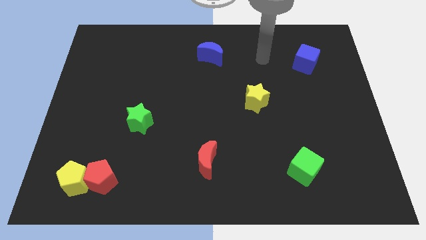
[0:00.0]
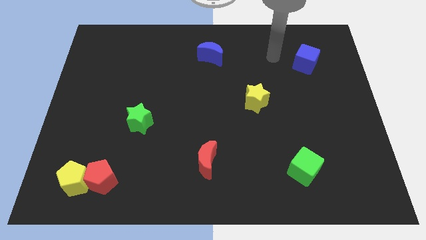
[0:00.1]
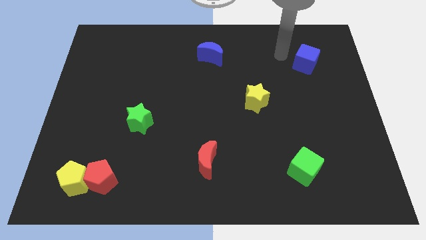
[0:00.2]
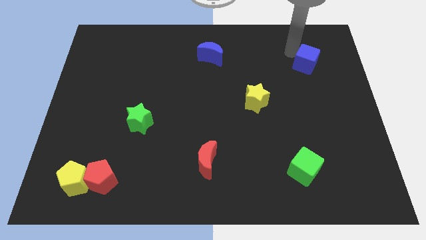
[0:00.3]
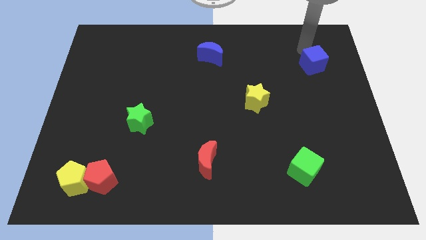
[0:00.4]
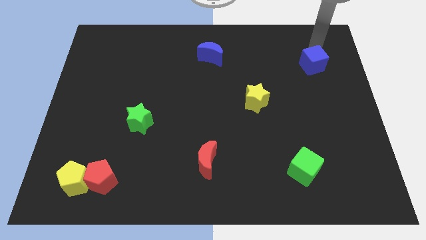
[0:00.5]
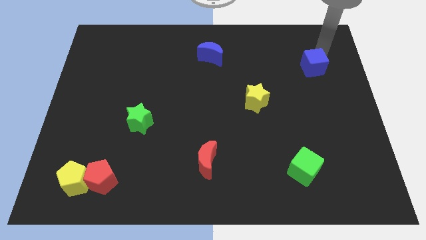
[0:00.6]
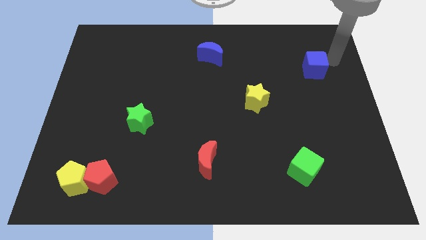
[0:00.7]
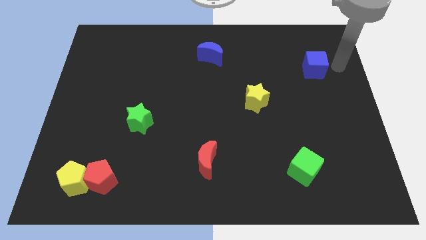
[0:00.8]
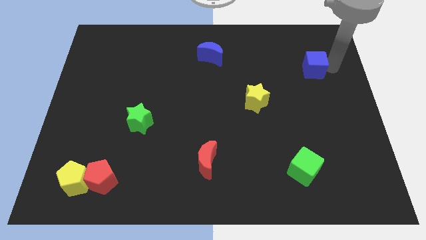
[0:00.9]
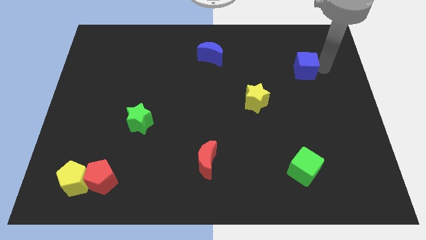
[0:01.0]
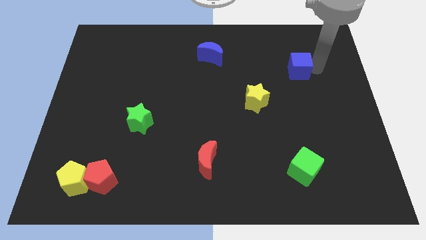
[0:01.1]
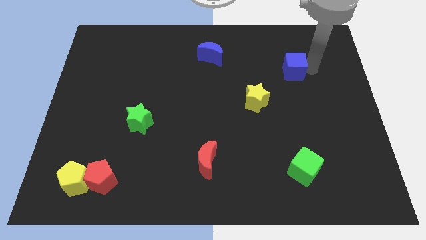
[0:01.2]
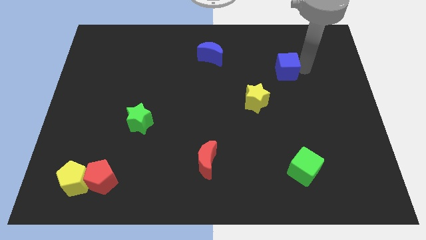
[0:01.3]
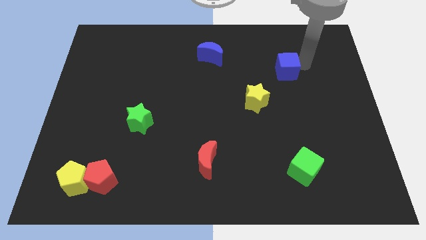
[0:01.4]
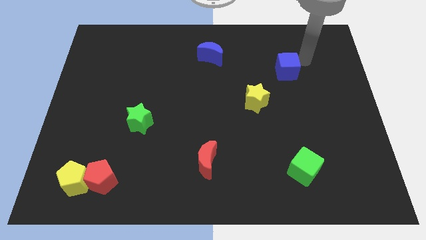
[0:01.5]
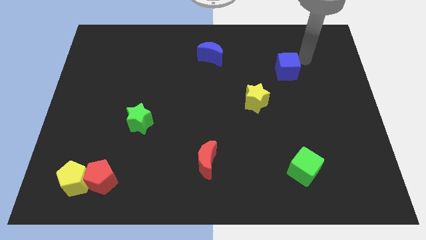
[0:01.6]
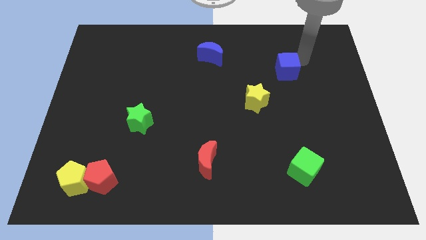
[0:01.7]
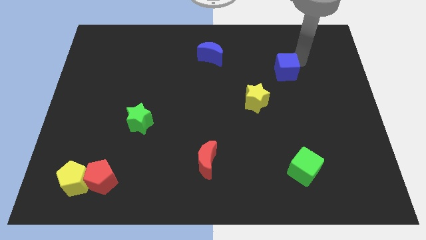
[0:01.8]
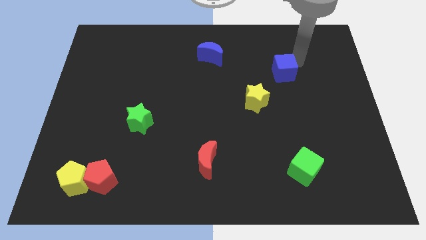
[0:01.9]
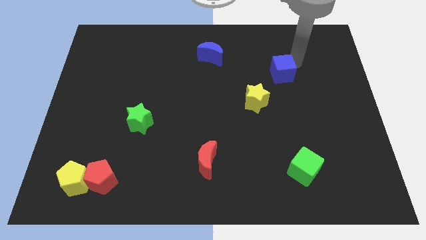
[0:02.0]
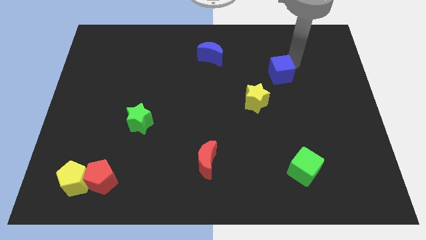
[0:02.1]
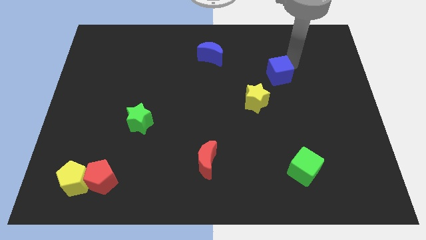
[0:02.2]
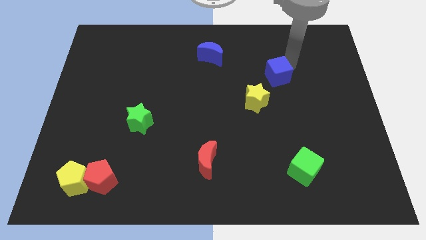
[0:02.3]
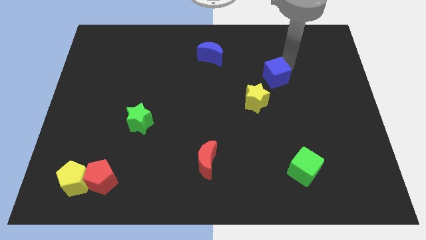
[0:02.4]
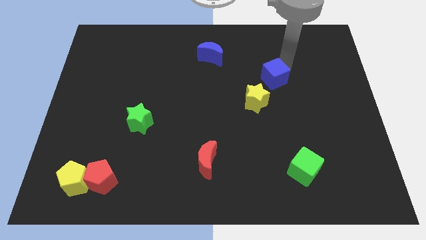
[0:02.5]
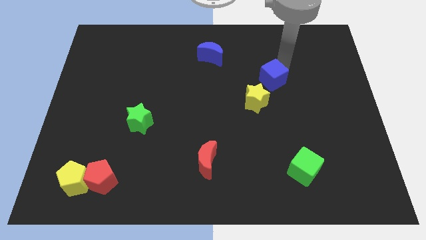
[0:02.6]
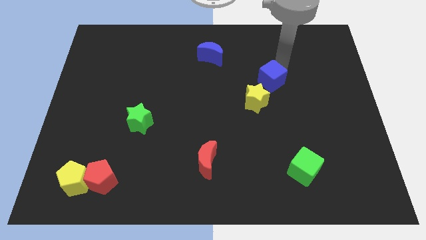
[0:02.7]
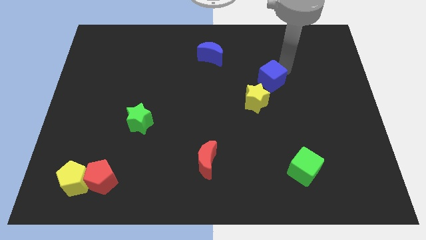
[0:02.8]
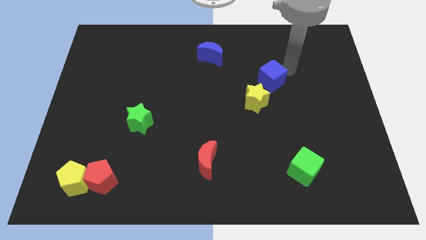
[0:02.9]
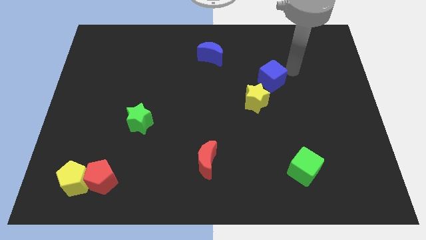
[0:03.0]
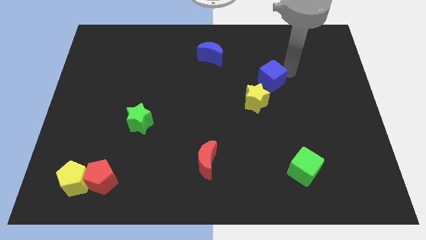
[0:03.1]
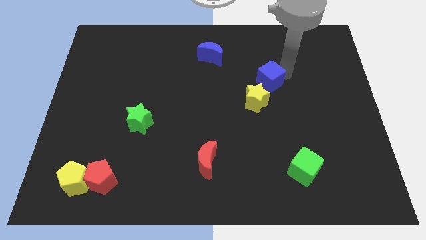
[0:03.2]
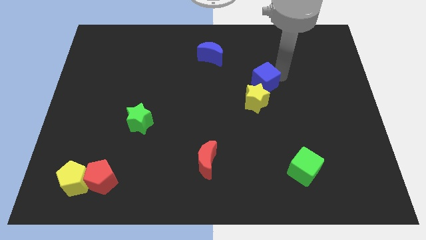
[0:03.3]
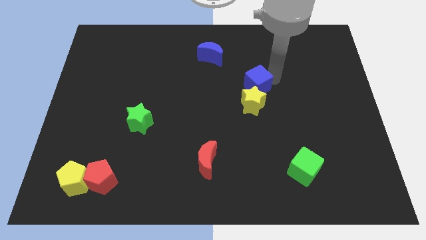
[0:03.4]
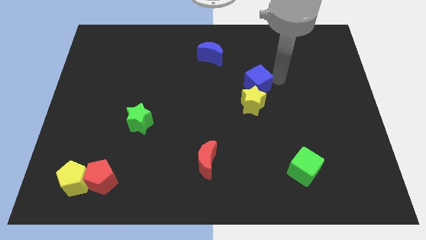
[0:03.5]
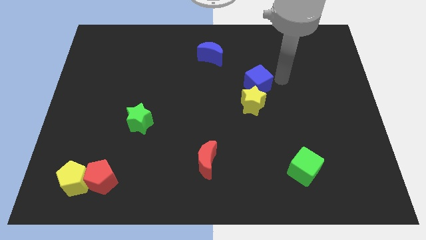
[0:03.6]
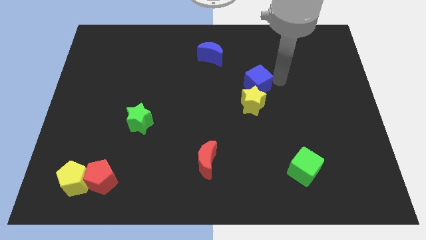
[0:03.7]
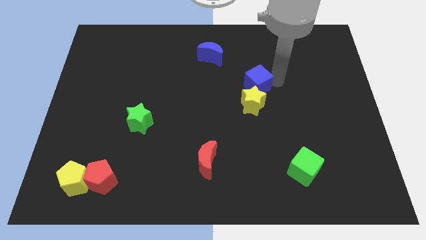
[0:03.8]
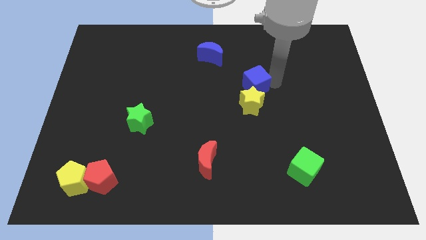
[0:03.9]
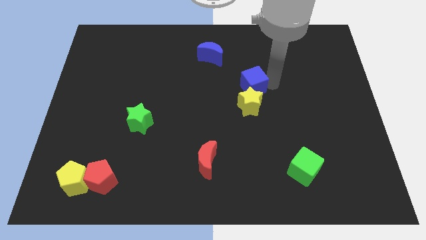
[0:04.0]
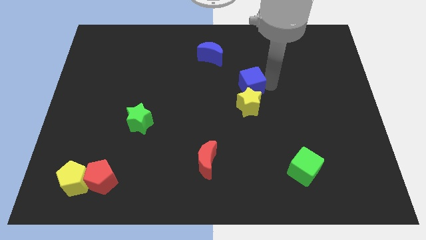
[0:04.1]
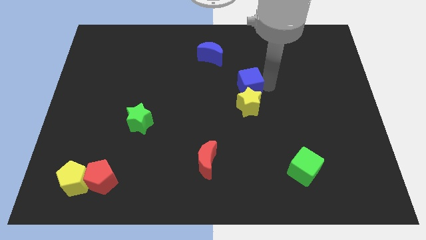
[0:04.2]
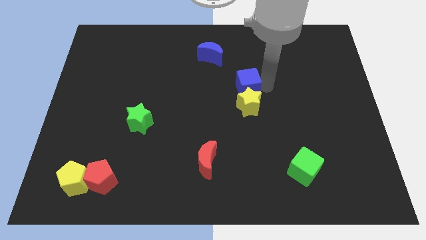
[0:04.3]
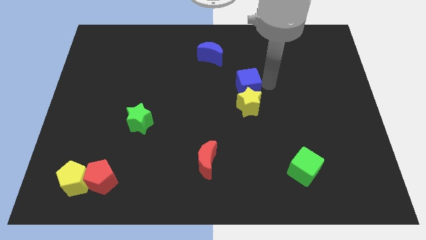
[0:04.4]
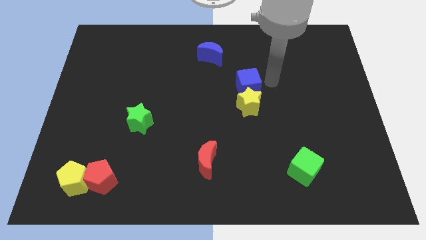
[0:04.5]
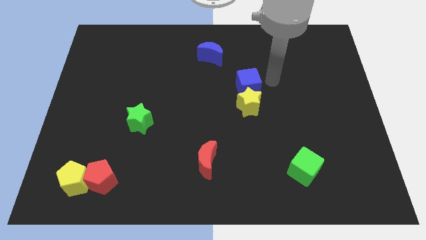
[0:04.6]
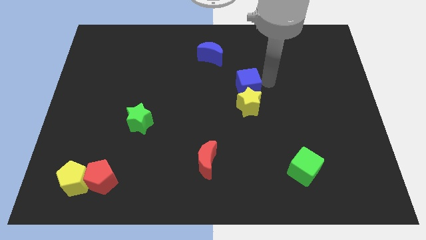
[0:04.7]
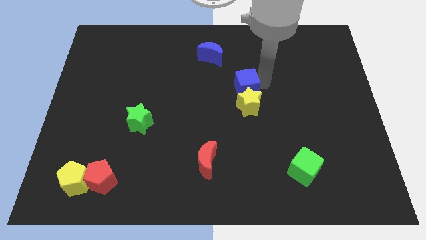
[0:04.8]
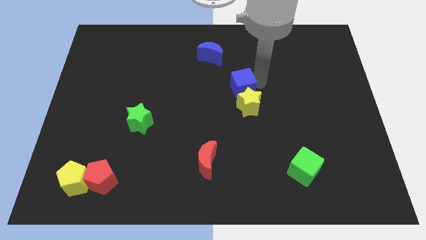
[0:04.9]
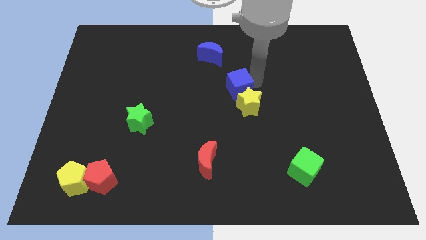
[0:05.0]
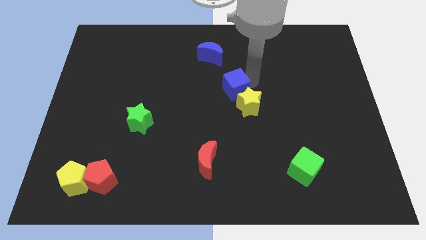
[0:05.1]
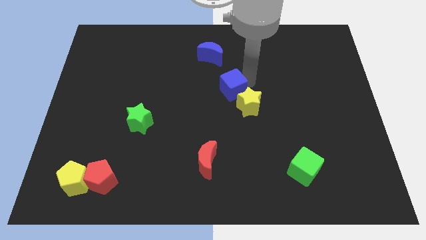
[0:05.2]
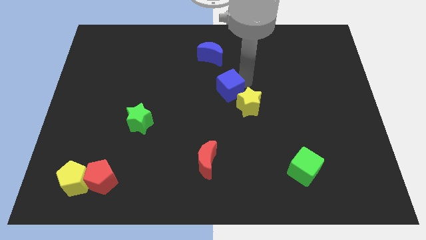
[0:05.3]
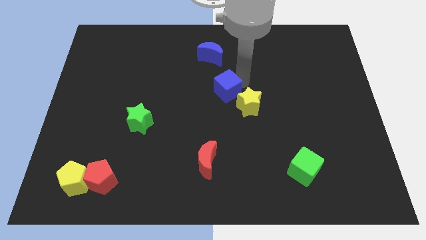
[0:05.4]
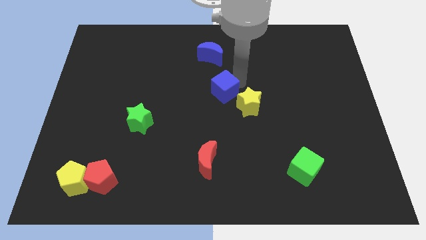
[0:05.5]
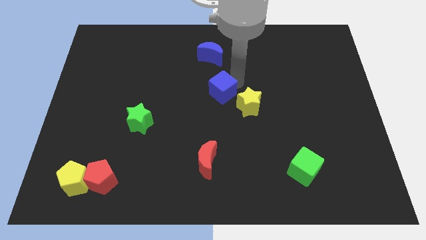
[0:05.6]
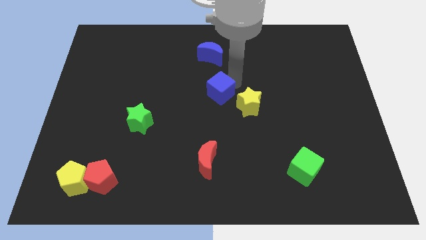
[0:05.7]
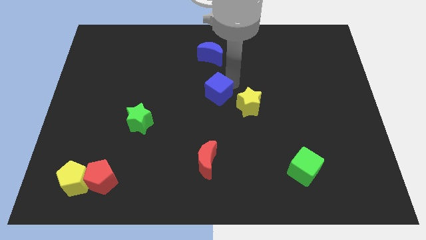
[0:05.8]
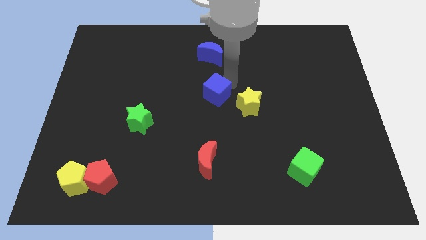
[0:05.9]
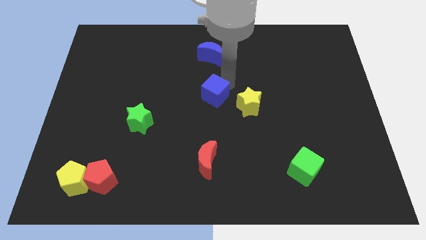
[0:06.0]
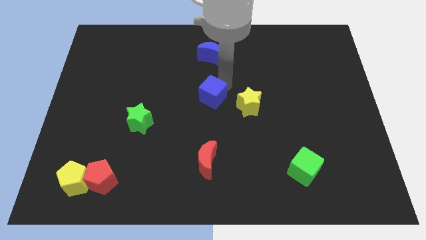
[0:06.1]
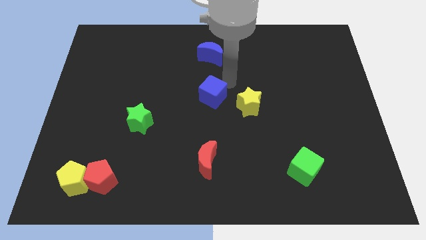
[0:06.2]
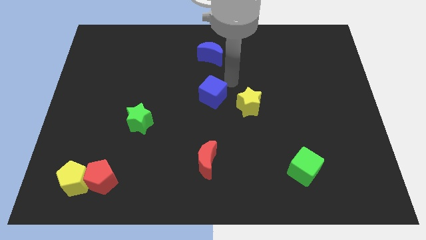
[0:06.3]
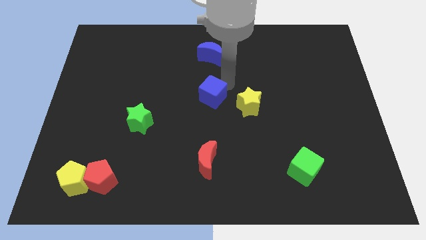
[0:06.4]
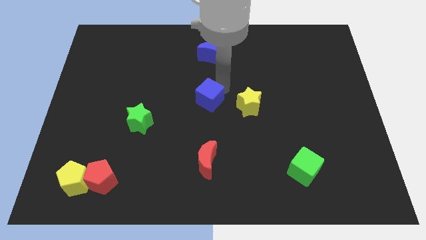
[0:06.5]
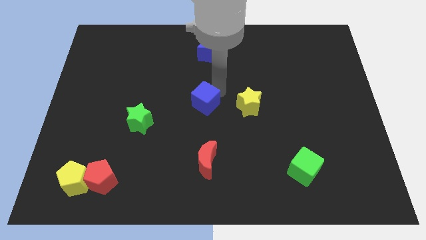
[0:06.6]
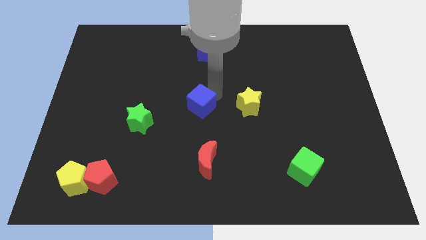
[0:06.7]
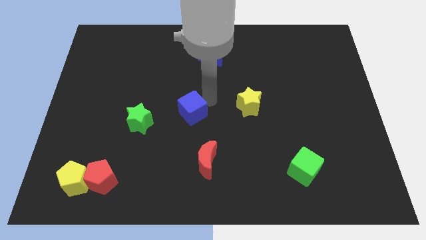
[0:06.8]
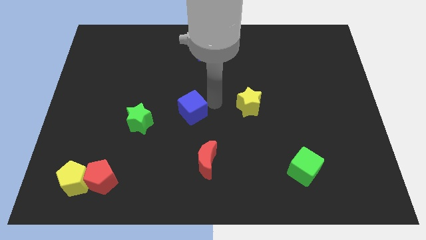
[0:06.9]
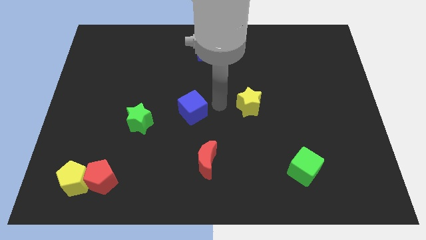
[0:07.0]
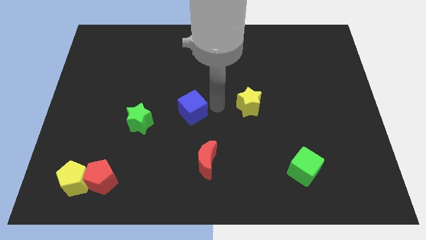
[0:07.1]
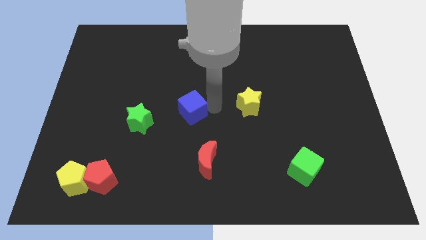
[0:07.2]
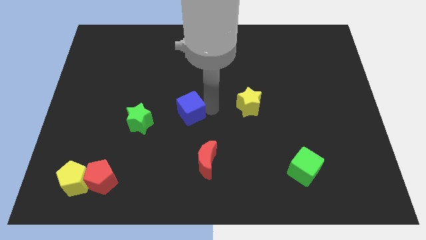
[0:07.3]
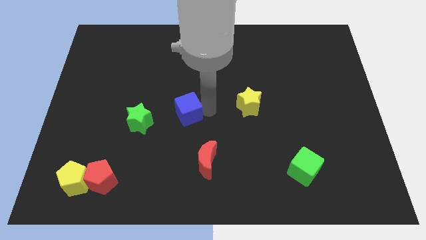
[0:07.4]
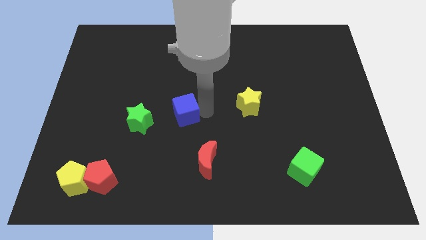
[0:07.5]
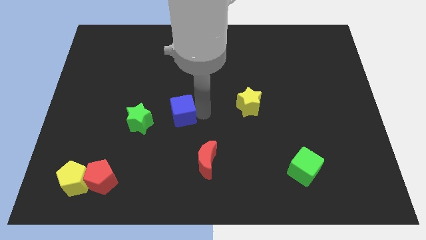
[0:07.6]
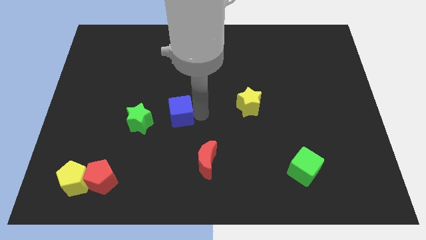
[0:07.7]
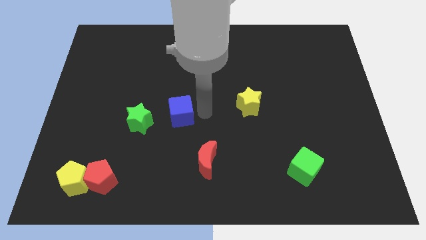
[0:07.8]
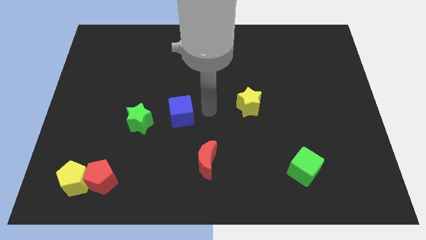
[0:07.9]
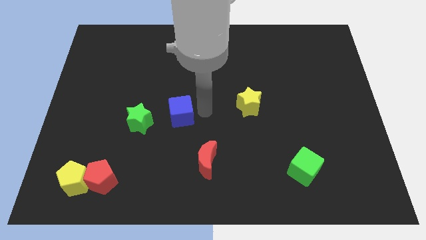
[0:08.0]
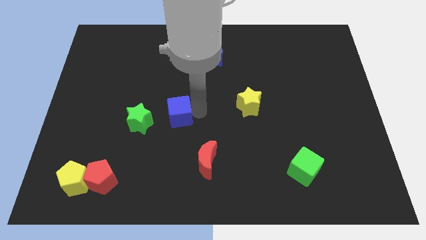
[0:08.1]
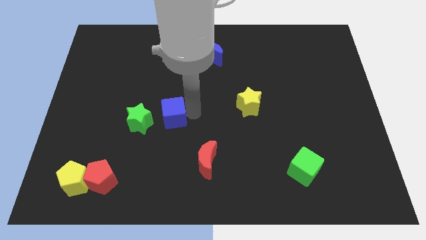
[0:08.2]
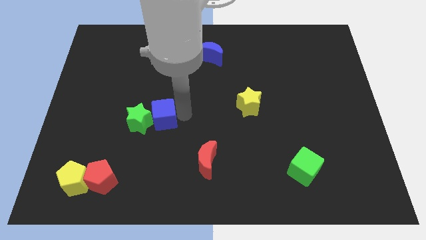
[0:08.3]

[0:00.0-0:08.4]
push the blue cube next to the green star
